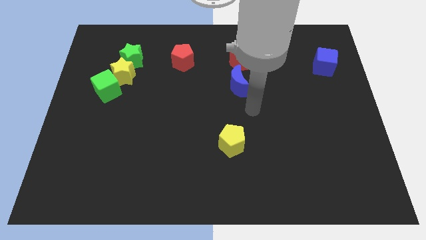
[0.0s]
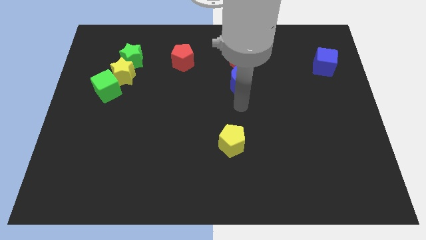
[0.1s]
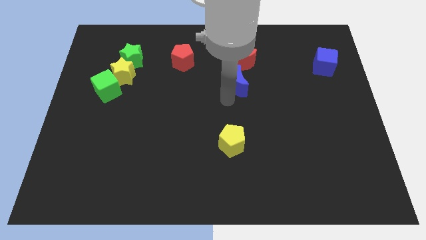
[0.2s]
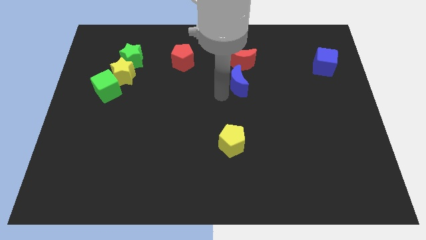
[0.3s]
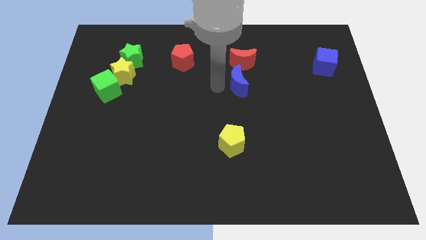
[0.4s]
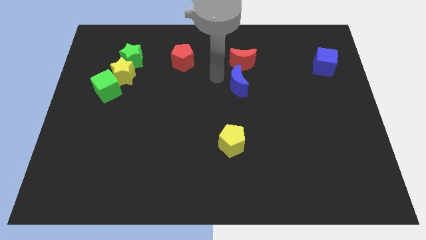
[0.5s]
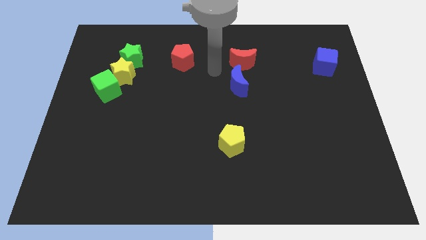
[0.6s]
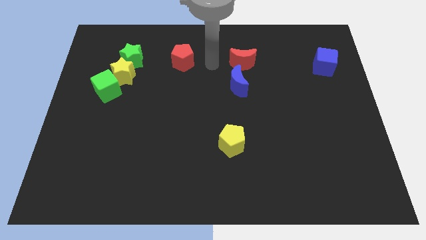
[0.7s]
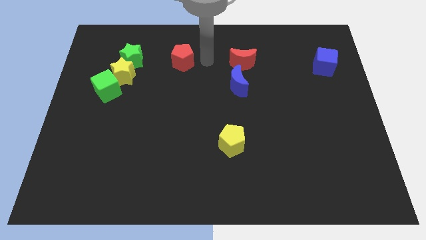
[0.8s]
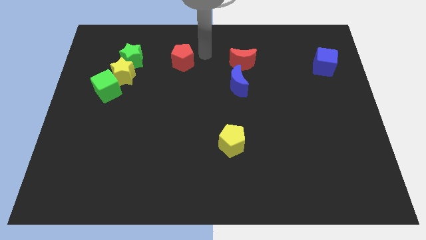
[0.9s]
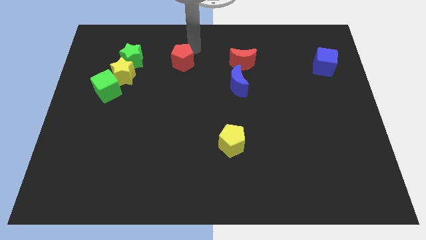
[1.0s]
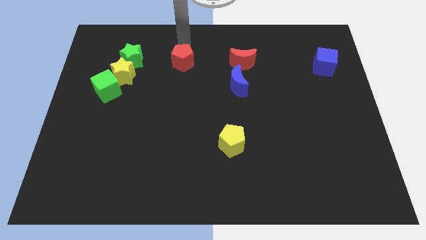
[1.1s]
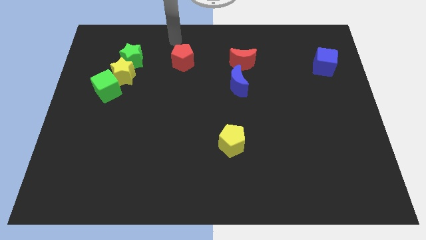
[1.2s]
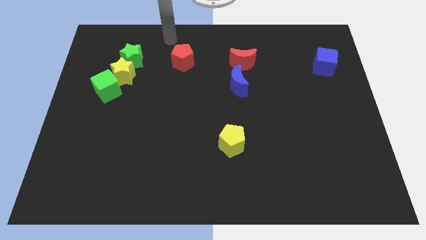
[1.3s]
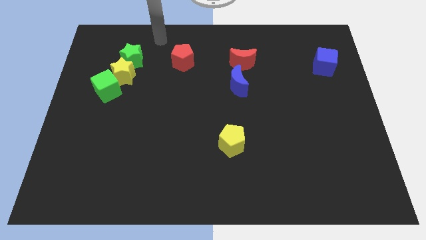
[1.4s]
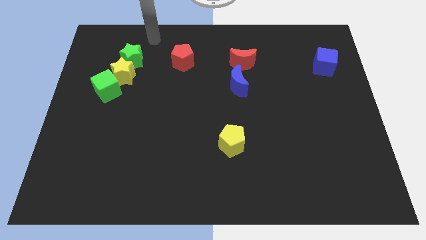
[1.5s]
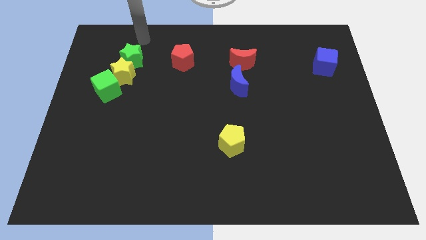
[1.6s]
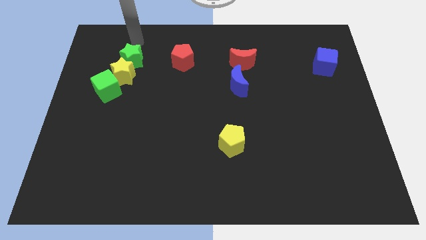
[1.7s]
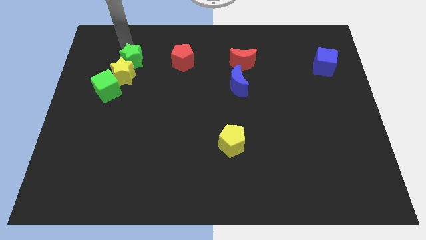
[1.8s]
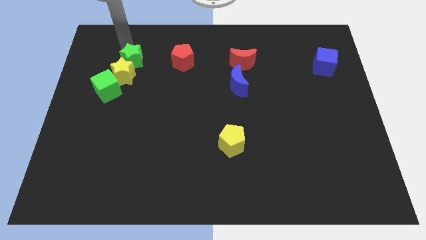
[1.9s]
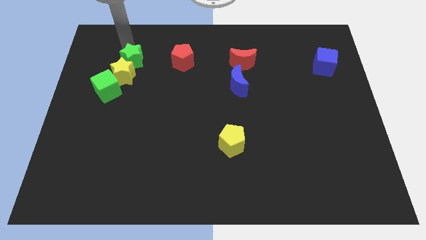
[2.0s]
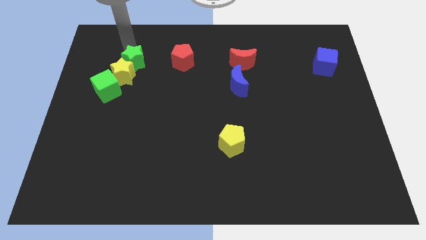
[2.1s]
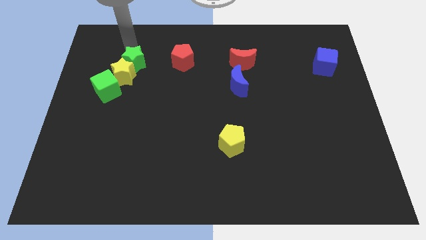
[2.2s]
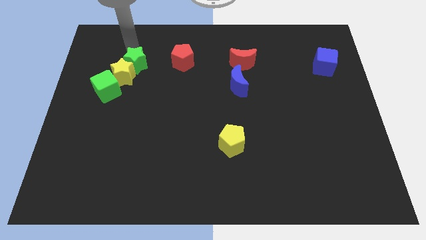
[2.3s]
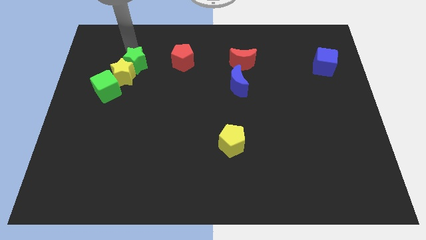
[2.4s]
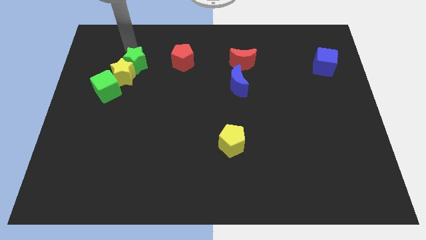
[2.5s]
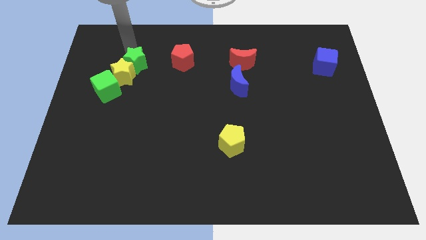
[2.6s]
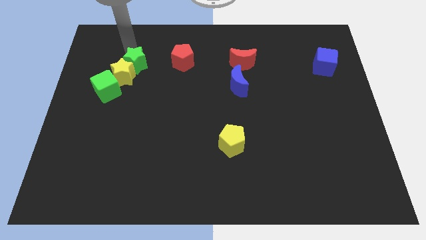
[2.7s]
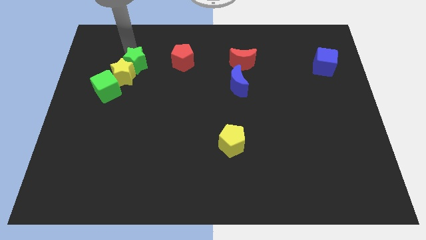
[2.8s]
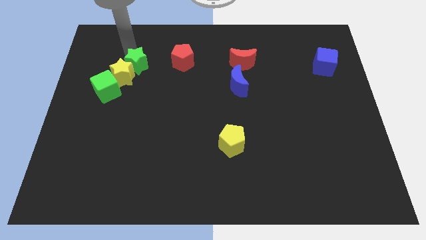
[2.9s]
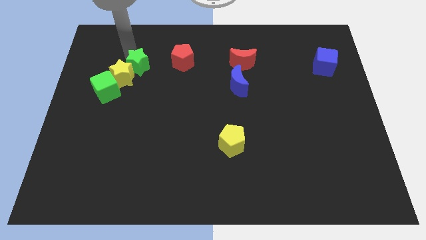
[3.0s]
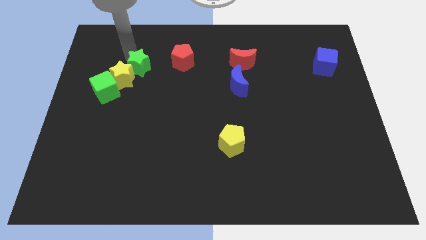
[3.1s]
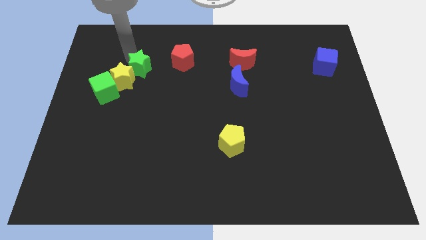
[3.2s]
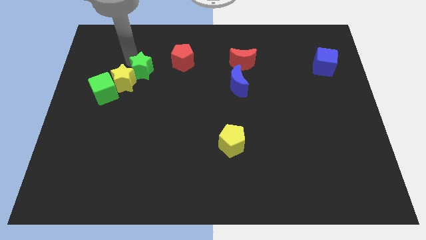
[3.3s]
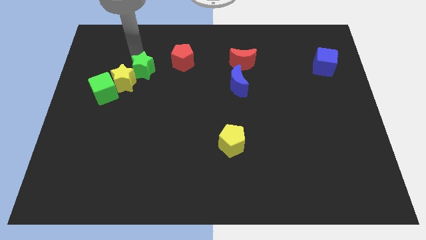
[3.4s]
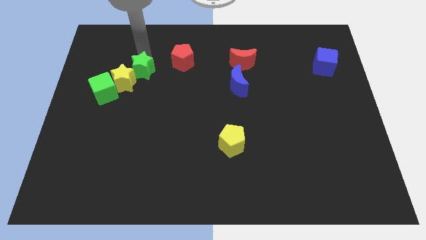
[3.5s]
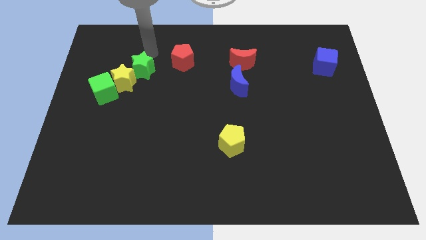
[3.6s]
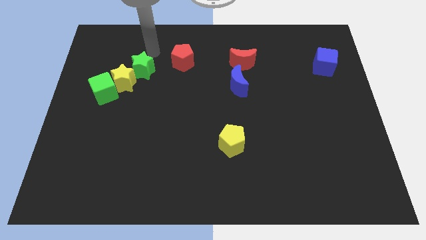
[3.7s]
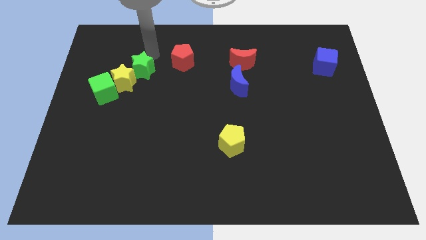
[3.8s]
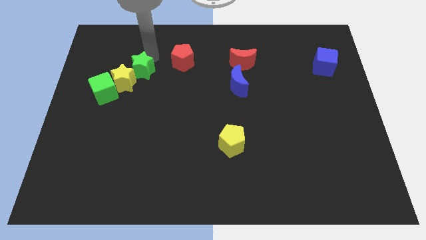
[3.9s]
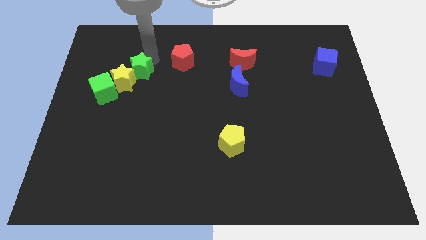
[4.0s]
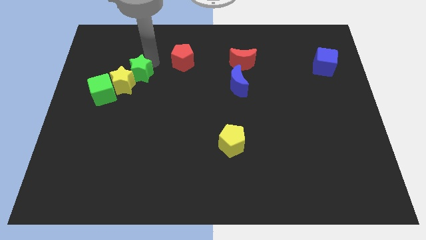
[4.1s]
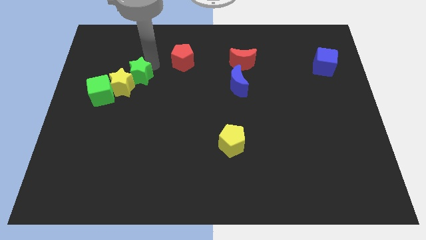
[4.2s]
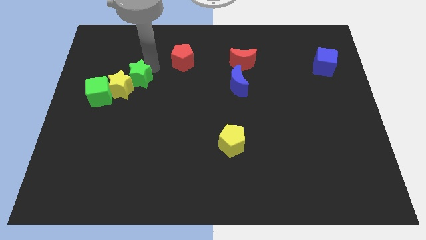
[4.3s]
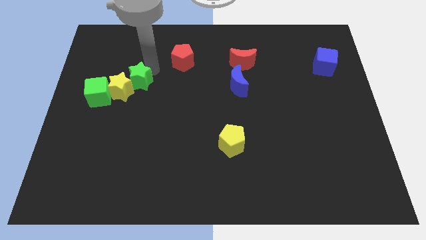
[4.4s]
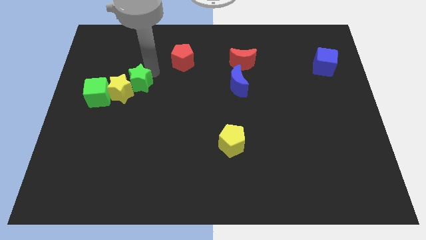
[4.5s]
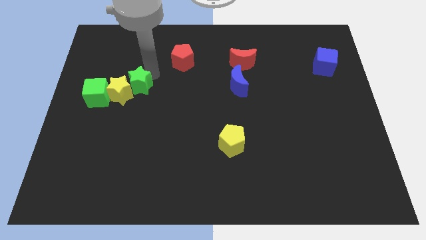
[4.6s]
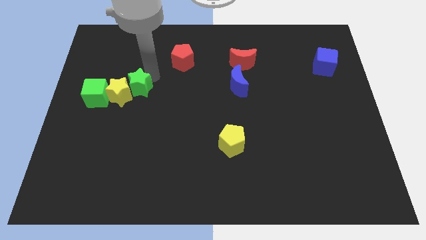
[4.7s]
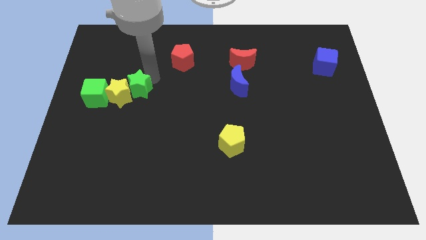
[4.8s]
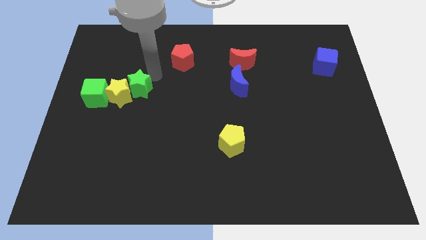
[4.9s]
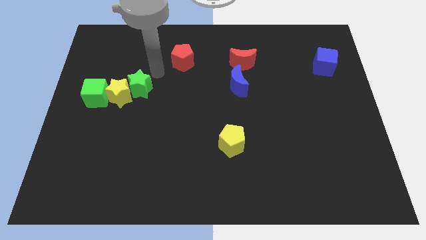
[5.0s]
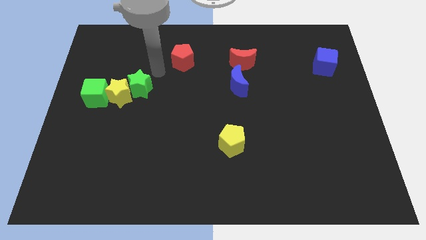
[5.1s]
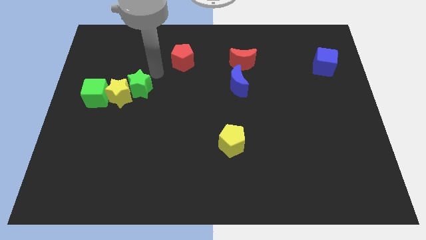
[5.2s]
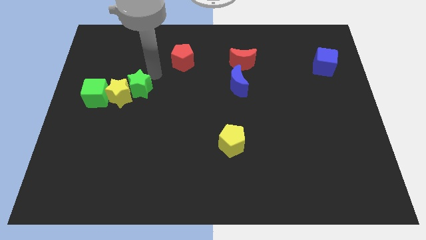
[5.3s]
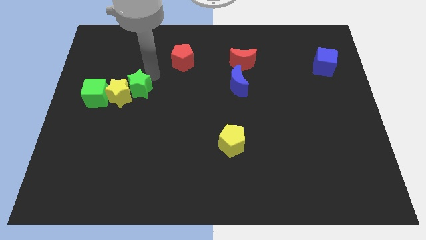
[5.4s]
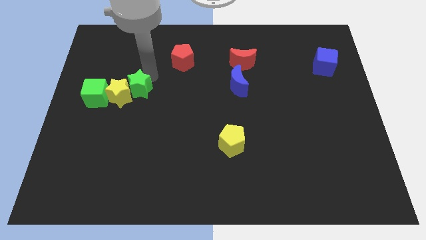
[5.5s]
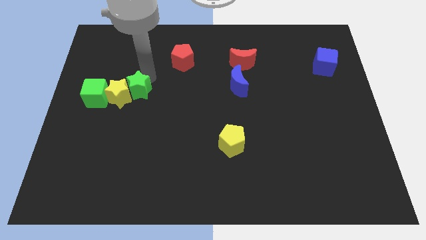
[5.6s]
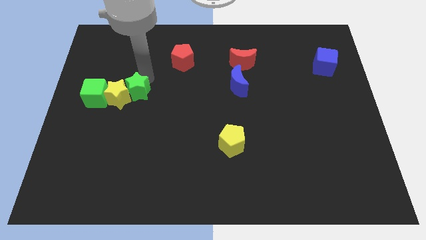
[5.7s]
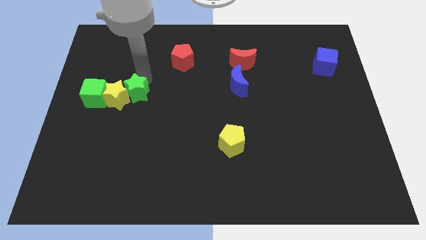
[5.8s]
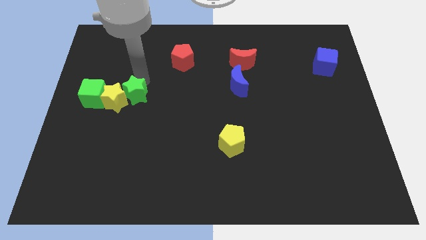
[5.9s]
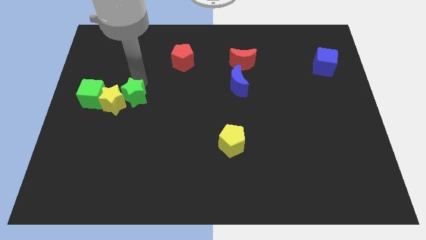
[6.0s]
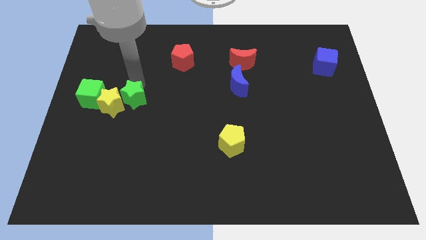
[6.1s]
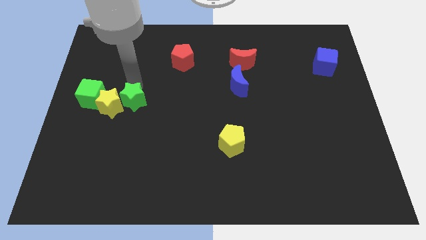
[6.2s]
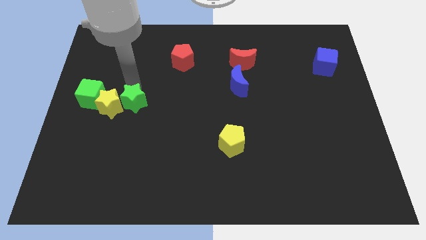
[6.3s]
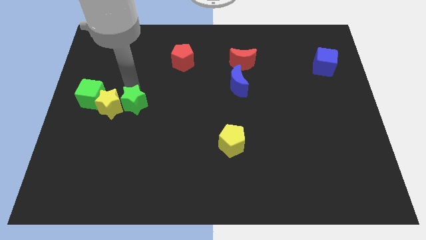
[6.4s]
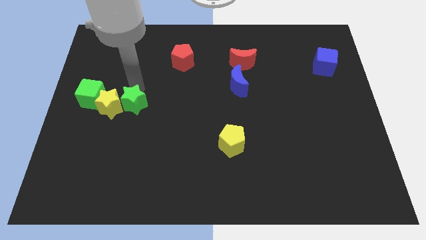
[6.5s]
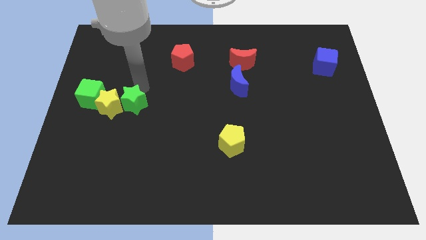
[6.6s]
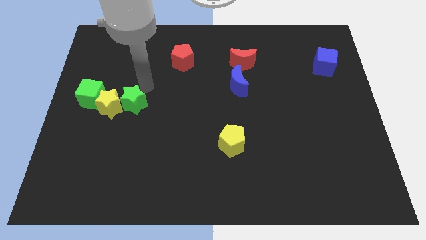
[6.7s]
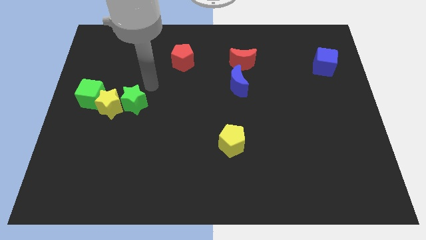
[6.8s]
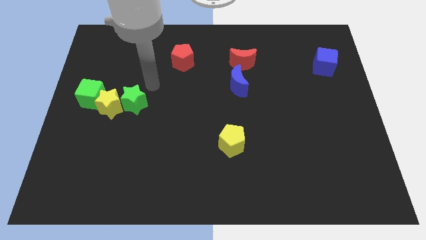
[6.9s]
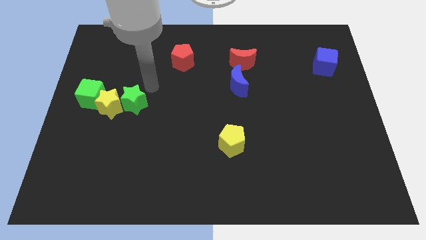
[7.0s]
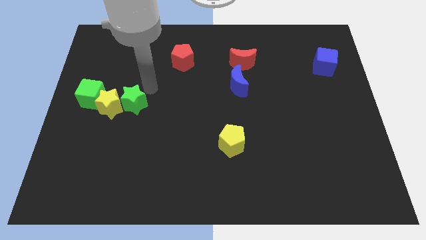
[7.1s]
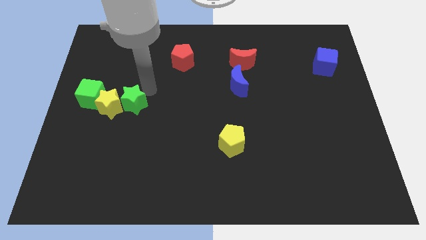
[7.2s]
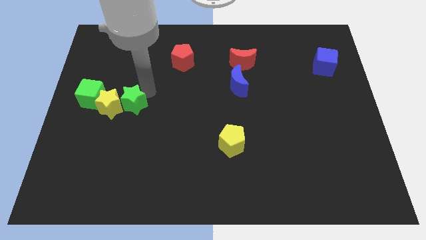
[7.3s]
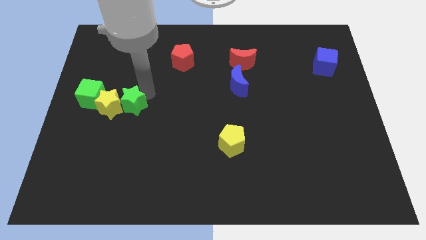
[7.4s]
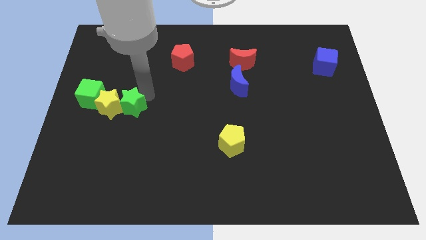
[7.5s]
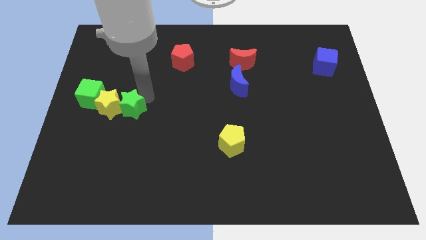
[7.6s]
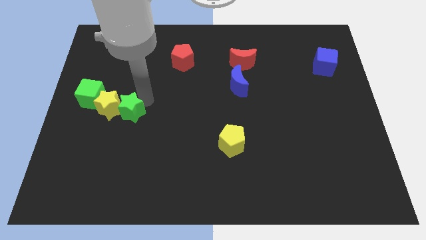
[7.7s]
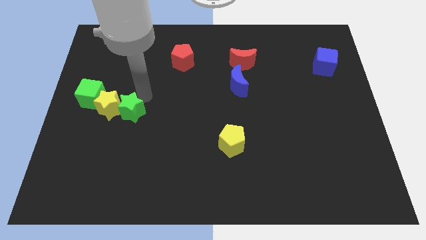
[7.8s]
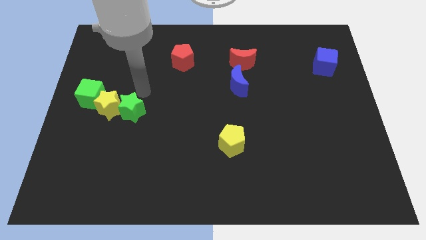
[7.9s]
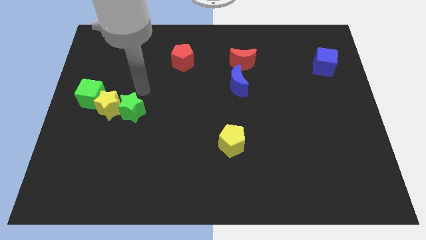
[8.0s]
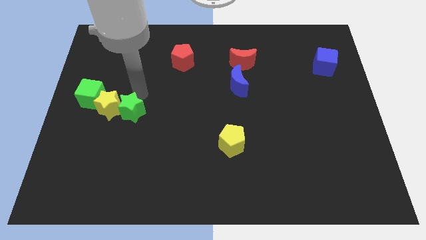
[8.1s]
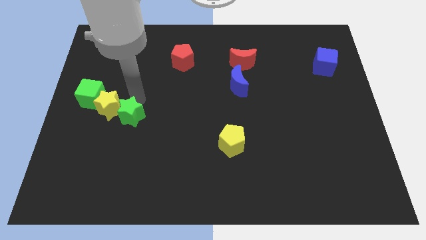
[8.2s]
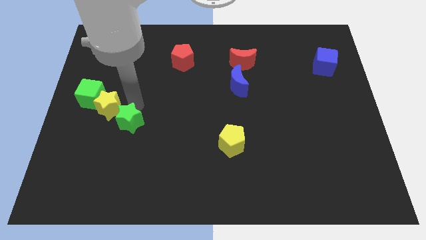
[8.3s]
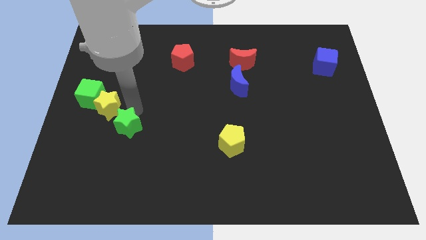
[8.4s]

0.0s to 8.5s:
move the green star downwards
